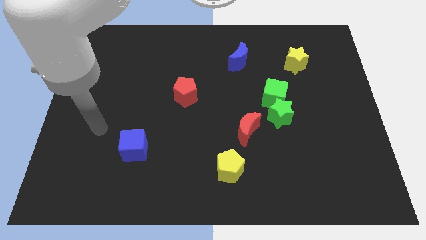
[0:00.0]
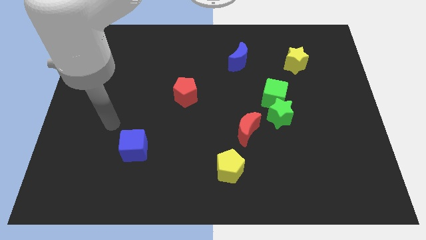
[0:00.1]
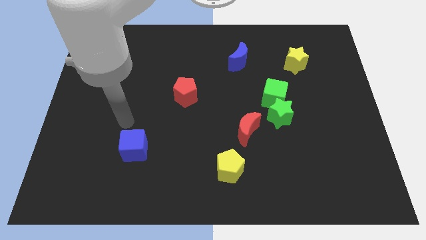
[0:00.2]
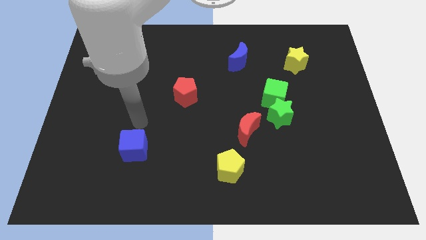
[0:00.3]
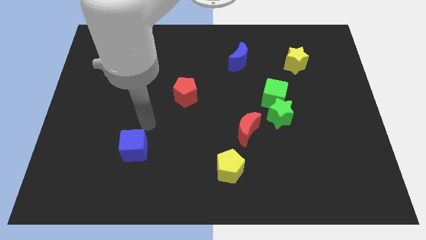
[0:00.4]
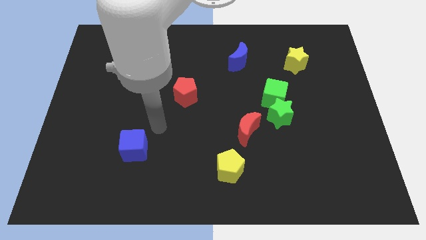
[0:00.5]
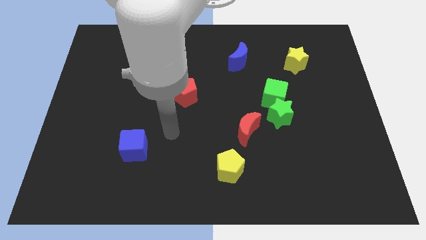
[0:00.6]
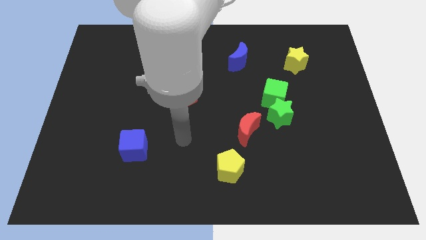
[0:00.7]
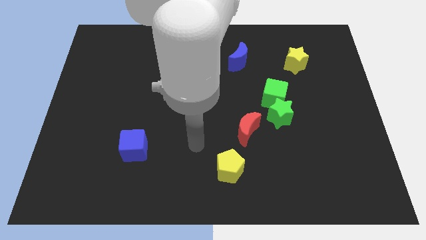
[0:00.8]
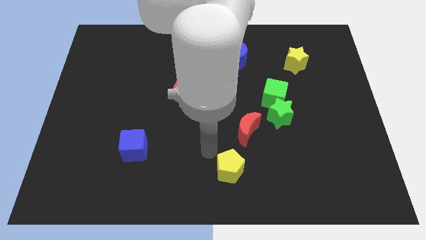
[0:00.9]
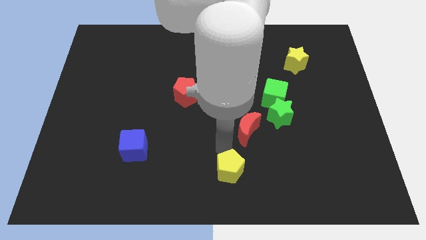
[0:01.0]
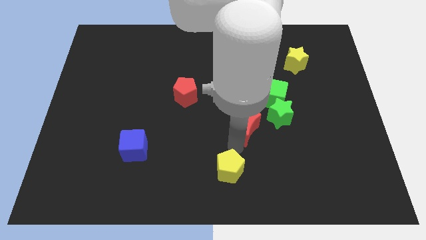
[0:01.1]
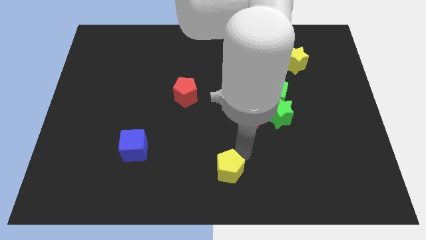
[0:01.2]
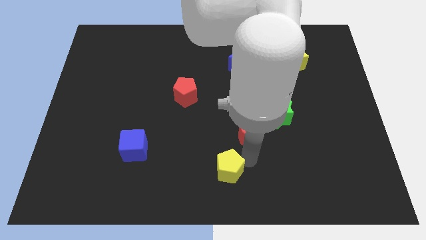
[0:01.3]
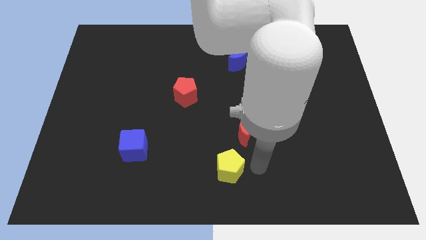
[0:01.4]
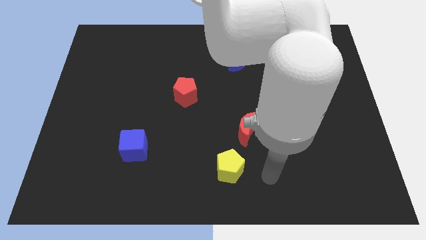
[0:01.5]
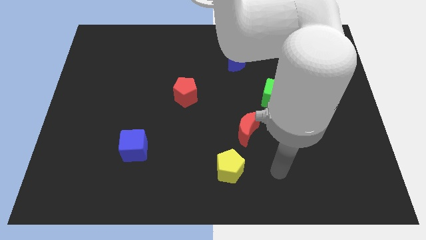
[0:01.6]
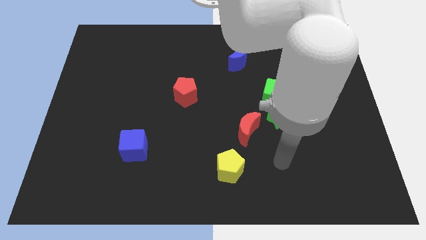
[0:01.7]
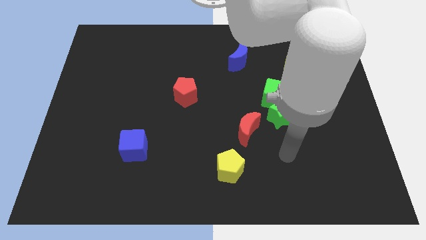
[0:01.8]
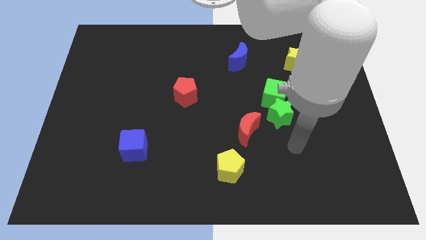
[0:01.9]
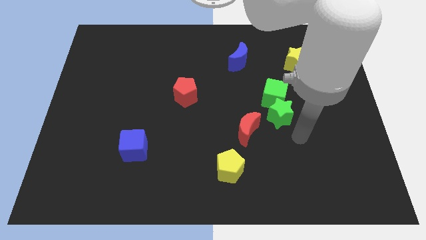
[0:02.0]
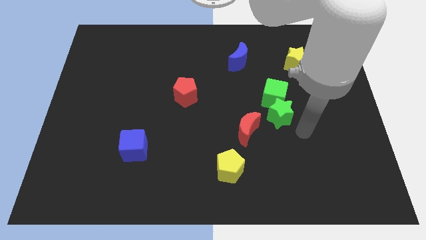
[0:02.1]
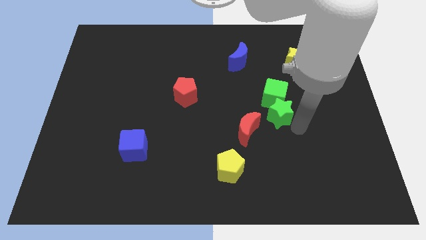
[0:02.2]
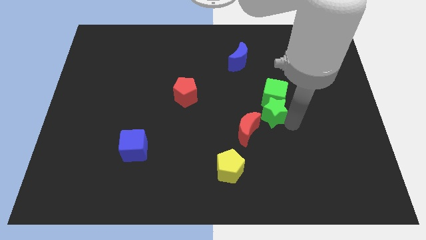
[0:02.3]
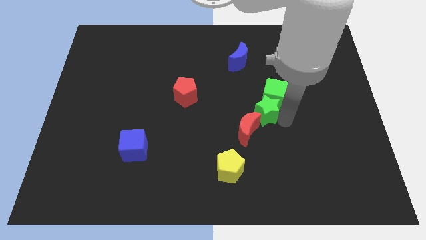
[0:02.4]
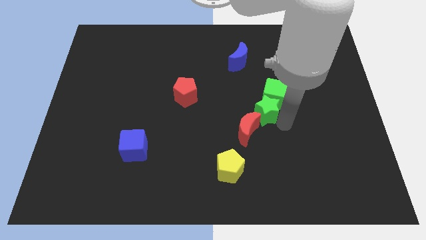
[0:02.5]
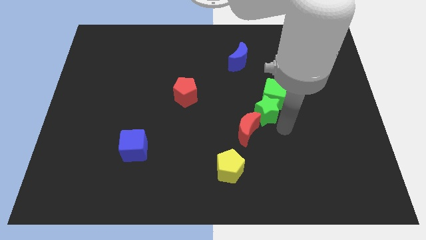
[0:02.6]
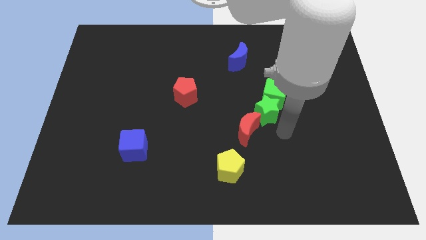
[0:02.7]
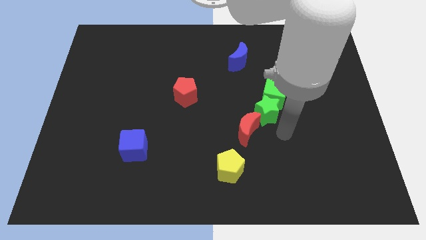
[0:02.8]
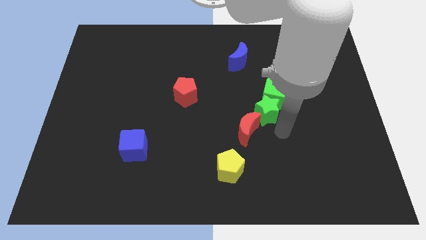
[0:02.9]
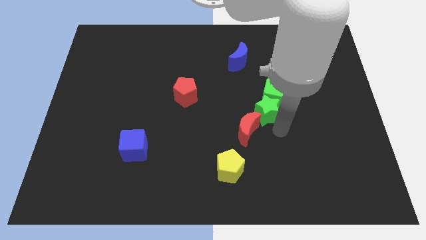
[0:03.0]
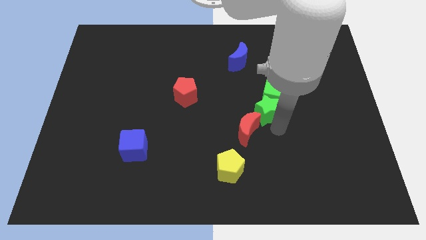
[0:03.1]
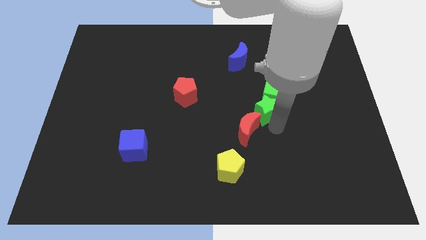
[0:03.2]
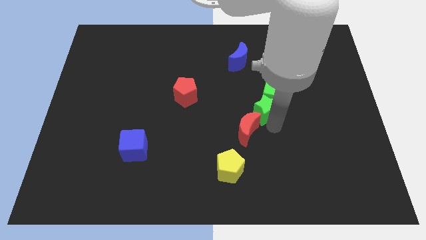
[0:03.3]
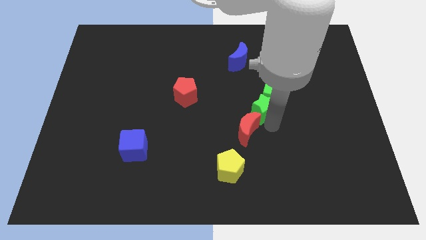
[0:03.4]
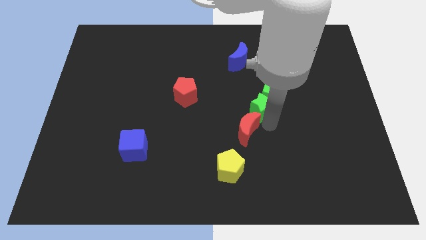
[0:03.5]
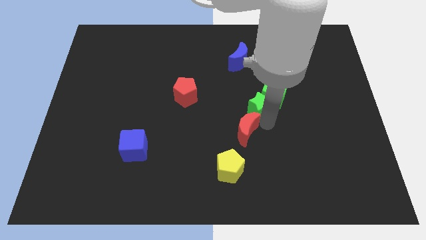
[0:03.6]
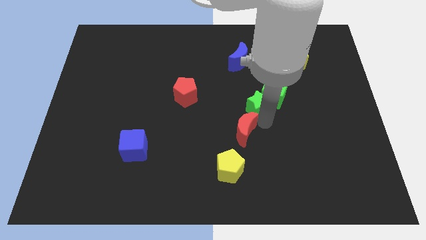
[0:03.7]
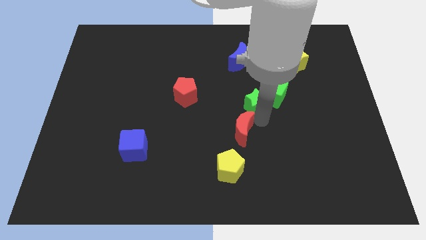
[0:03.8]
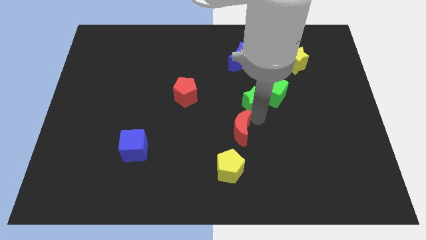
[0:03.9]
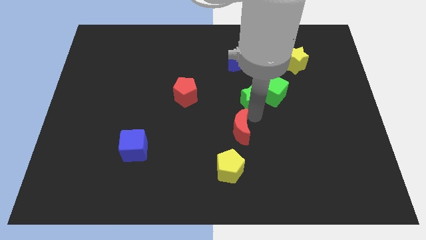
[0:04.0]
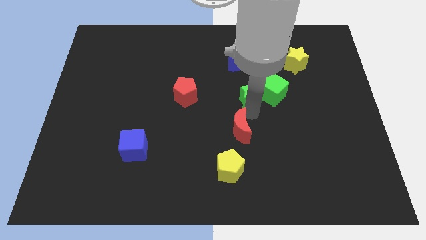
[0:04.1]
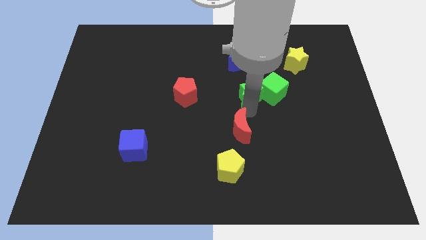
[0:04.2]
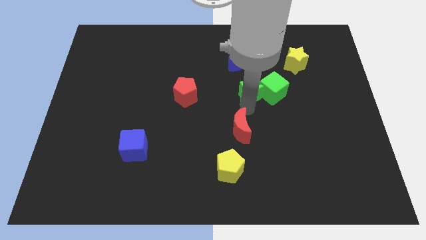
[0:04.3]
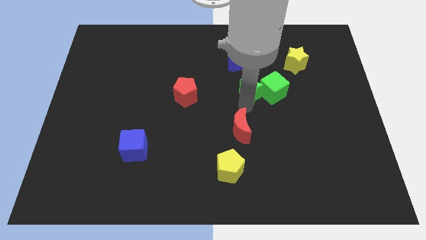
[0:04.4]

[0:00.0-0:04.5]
move the green star to the top left of the green cube

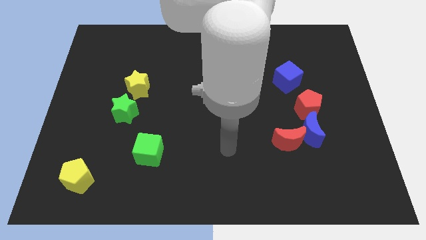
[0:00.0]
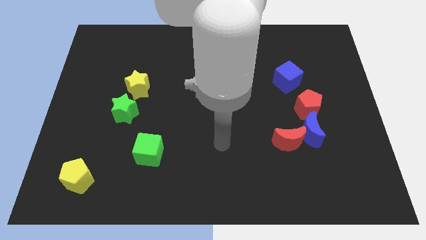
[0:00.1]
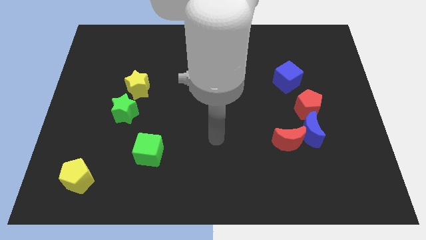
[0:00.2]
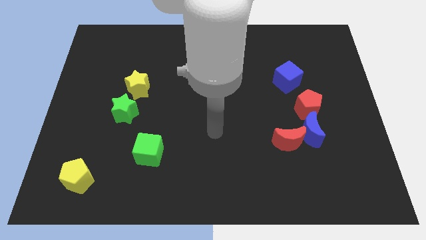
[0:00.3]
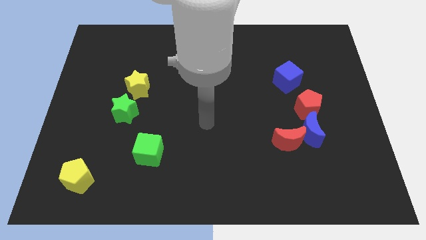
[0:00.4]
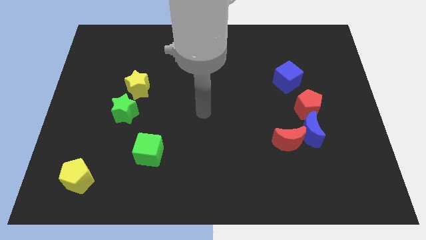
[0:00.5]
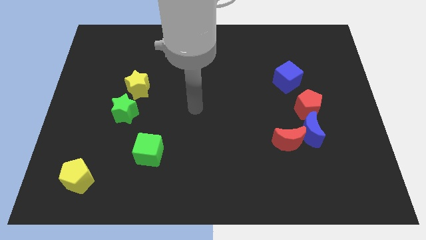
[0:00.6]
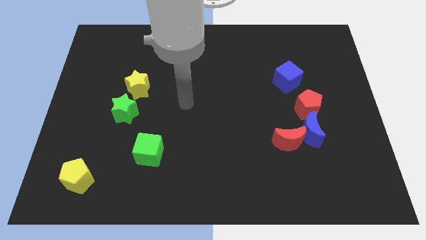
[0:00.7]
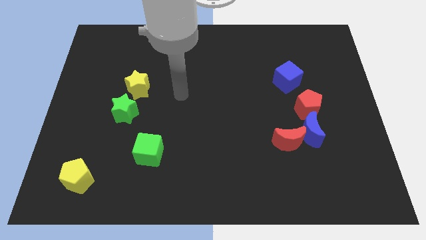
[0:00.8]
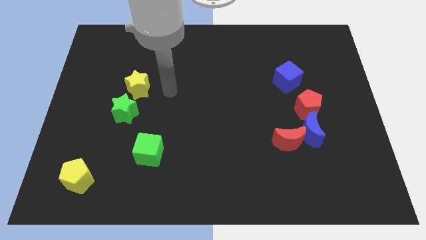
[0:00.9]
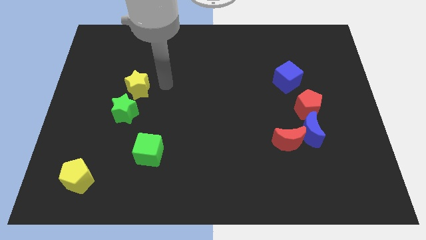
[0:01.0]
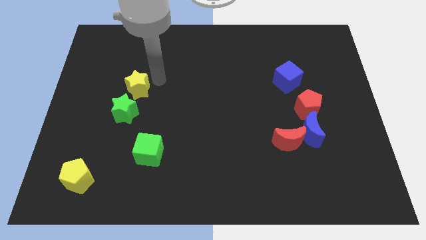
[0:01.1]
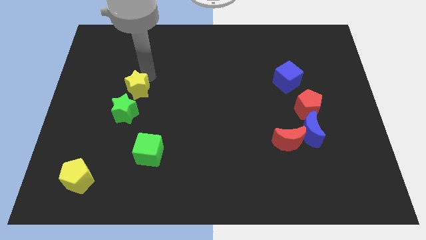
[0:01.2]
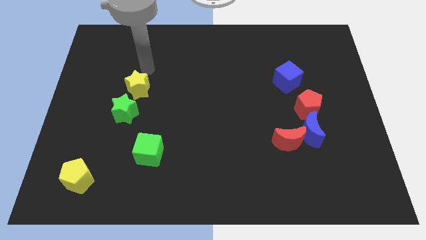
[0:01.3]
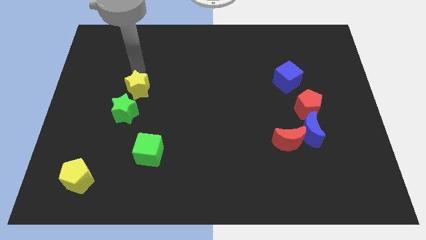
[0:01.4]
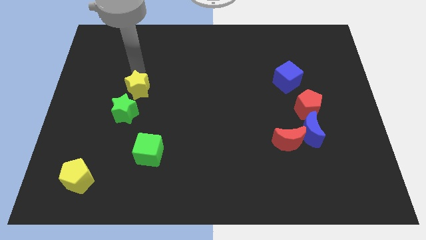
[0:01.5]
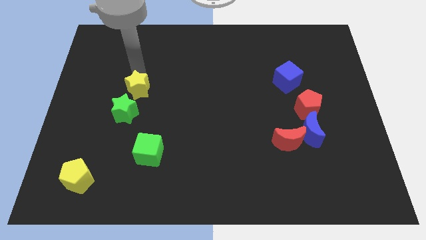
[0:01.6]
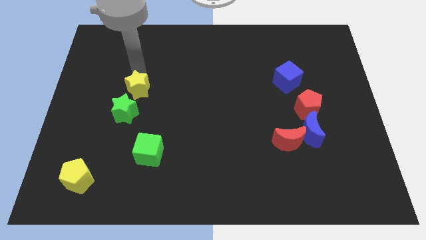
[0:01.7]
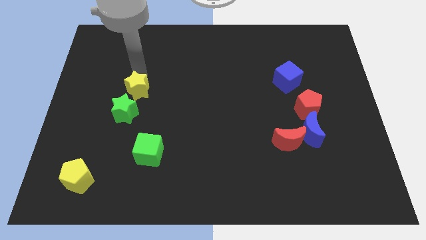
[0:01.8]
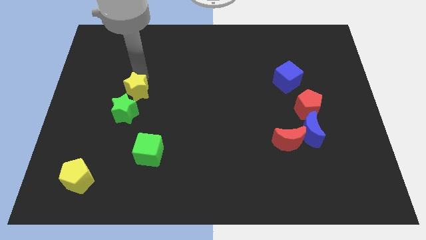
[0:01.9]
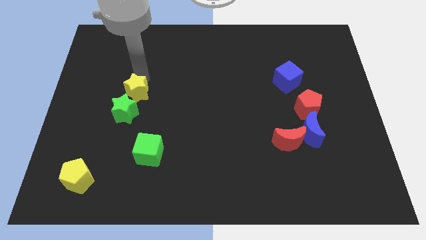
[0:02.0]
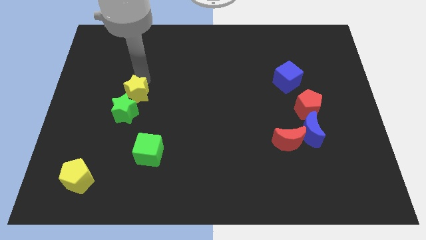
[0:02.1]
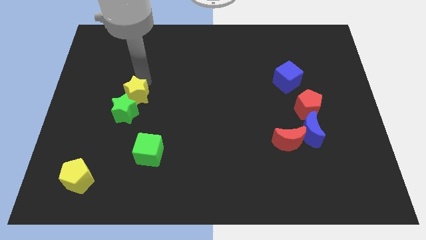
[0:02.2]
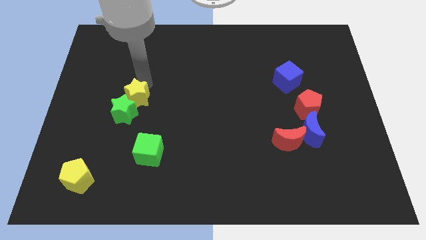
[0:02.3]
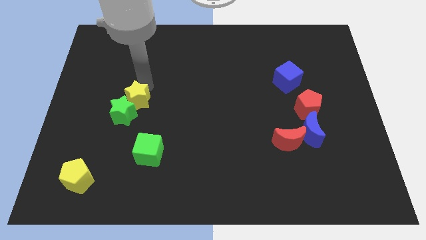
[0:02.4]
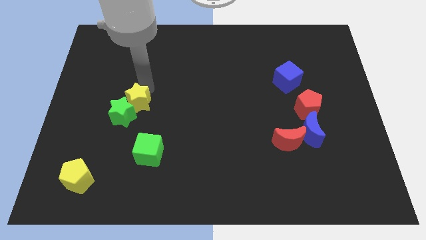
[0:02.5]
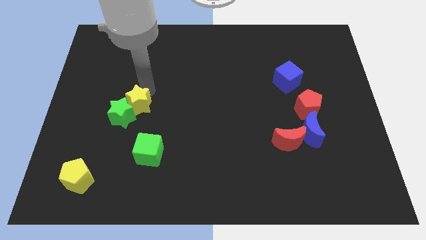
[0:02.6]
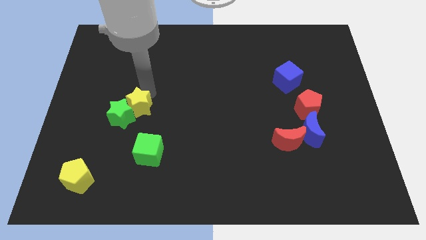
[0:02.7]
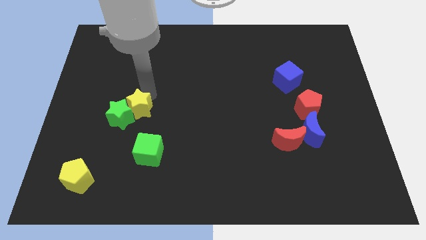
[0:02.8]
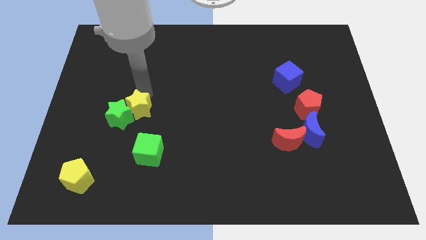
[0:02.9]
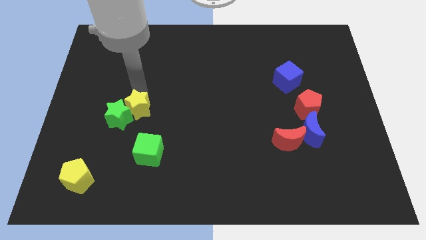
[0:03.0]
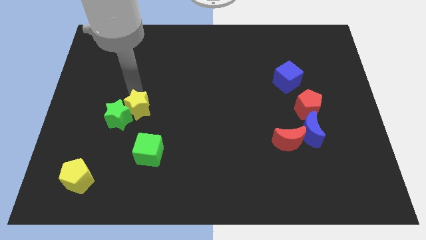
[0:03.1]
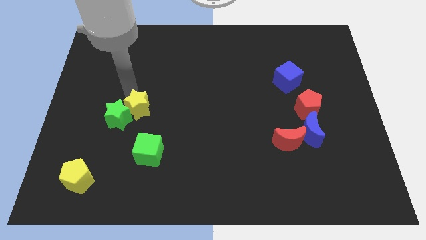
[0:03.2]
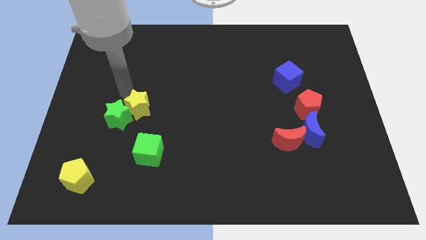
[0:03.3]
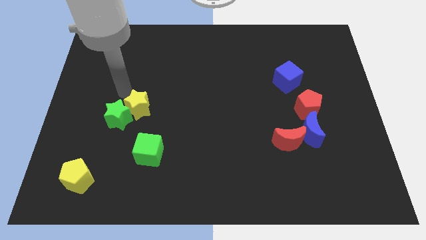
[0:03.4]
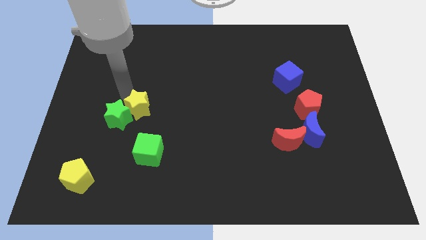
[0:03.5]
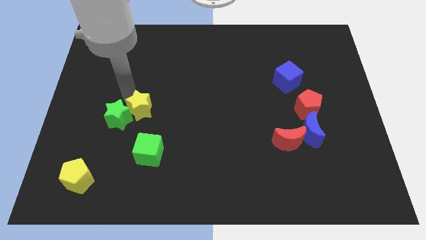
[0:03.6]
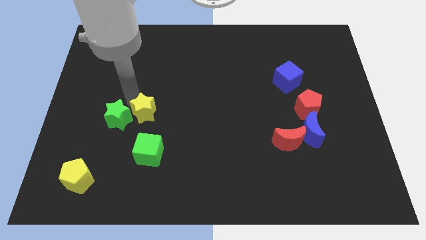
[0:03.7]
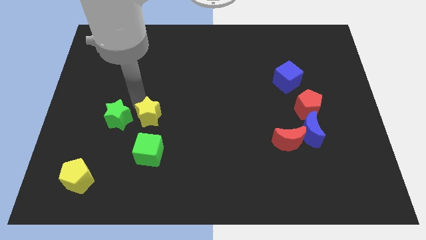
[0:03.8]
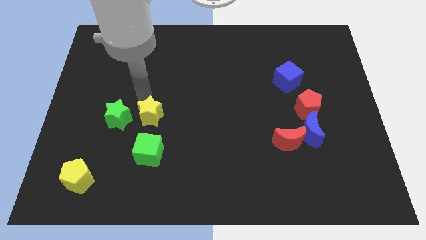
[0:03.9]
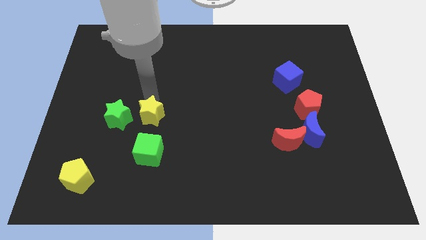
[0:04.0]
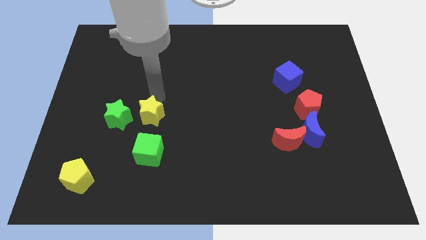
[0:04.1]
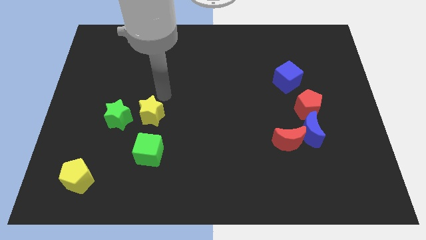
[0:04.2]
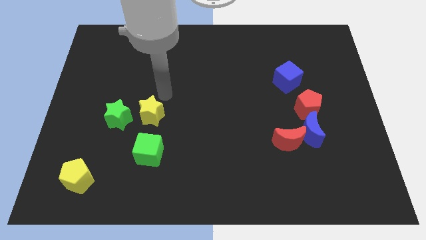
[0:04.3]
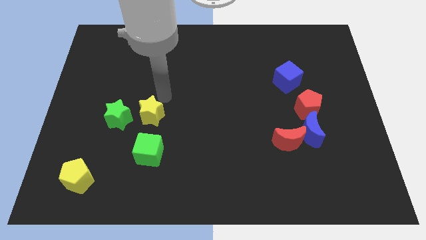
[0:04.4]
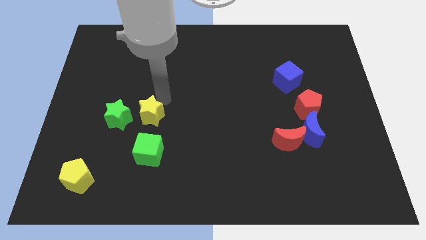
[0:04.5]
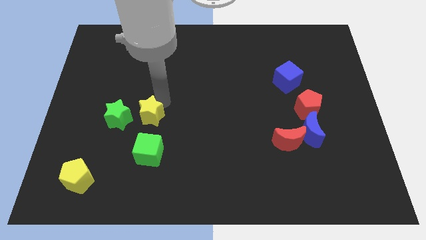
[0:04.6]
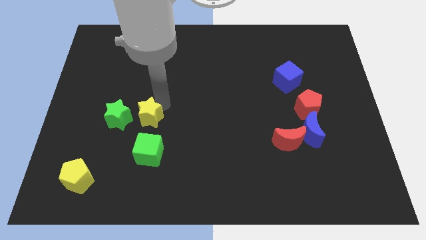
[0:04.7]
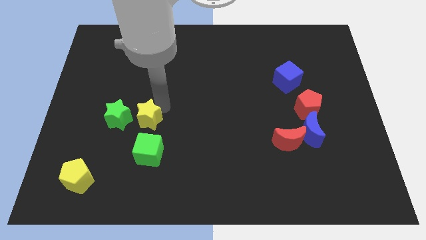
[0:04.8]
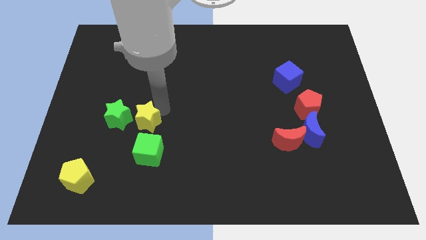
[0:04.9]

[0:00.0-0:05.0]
put the yellow star to the bottom right of the green star
